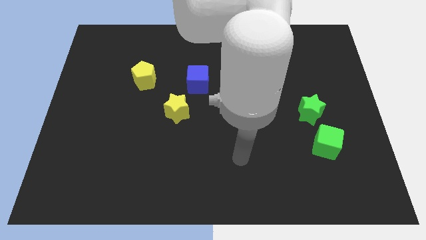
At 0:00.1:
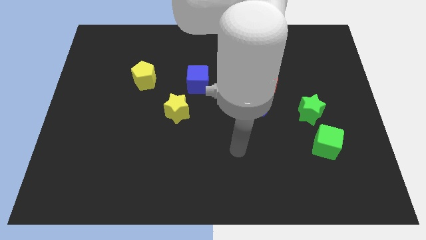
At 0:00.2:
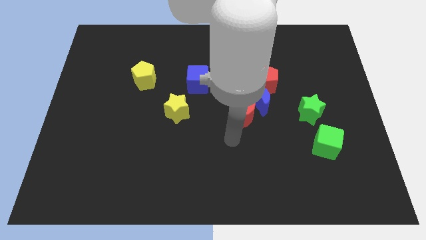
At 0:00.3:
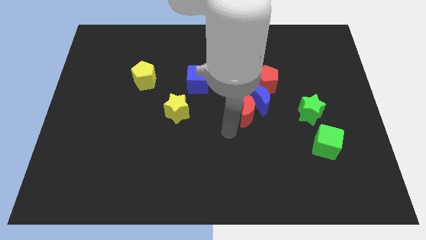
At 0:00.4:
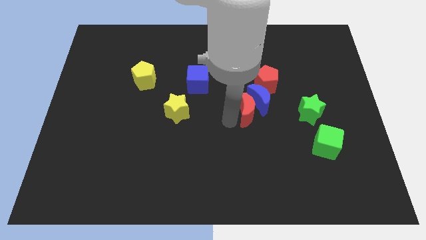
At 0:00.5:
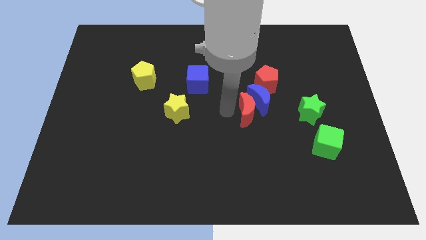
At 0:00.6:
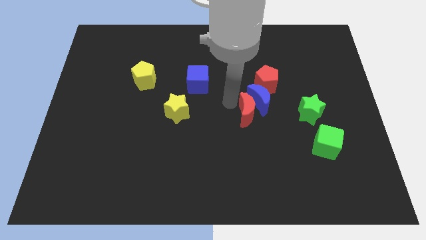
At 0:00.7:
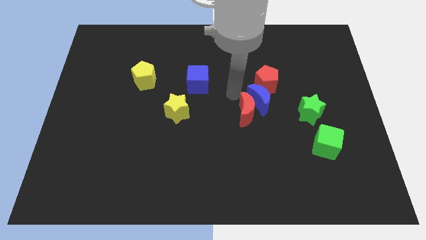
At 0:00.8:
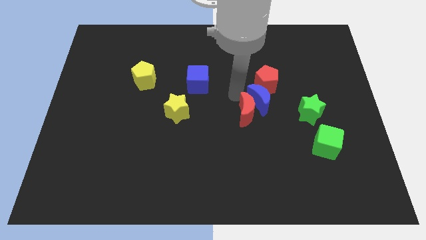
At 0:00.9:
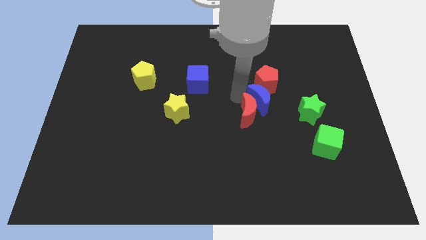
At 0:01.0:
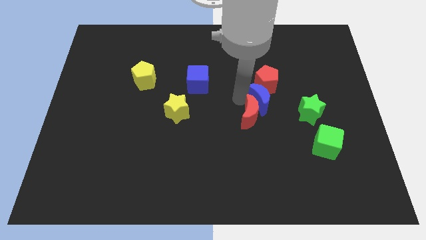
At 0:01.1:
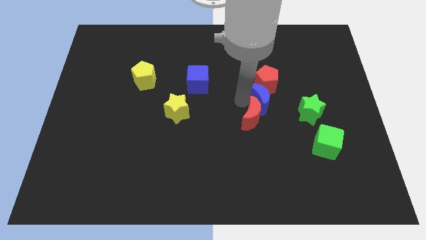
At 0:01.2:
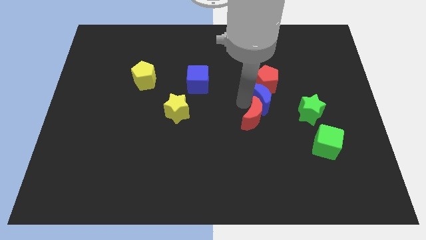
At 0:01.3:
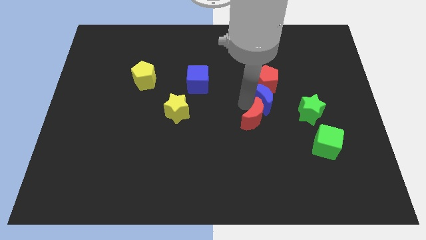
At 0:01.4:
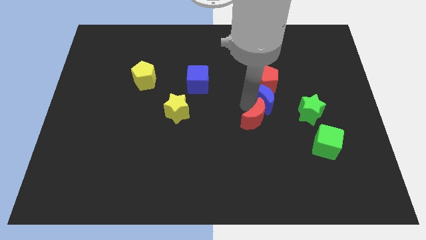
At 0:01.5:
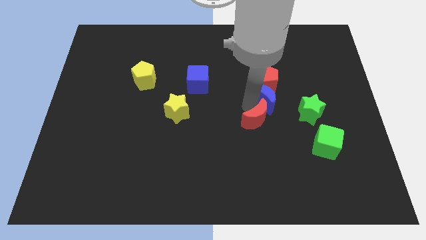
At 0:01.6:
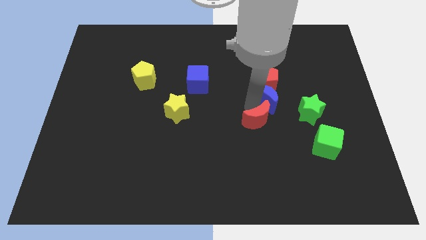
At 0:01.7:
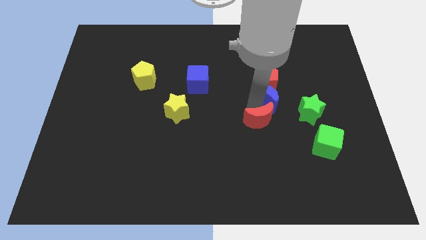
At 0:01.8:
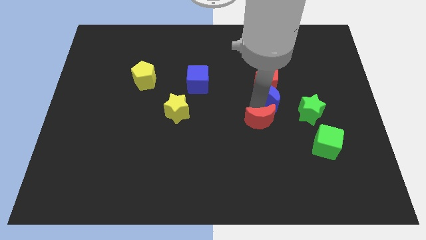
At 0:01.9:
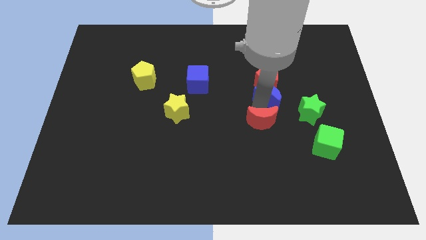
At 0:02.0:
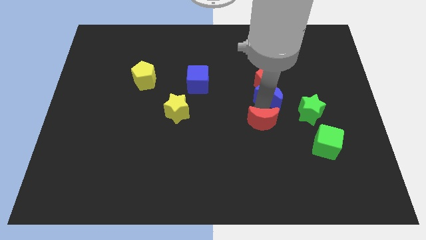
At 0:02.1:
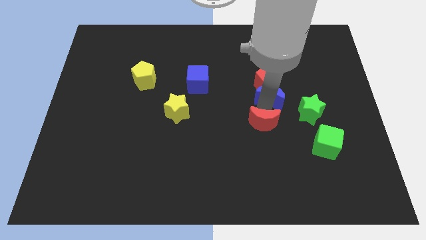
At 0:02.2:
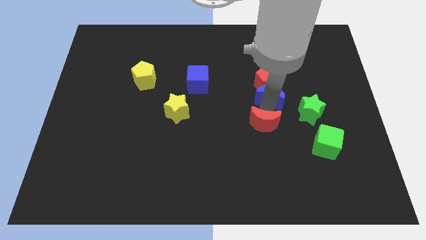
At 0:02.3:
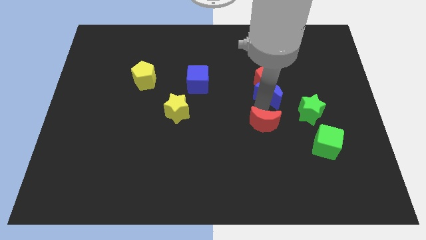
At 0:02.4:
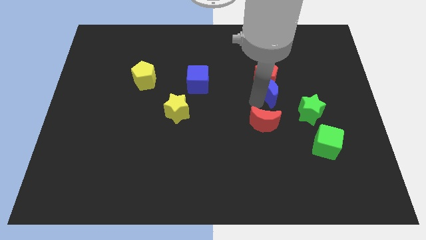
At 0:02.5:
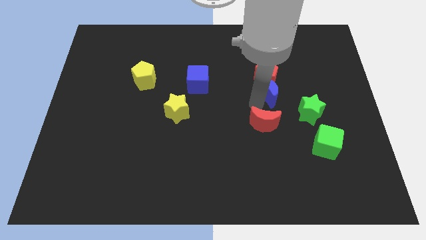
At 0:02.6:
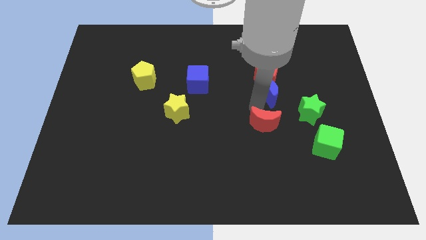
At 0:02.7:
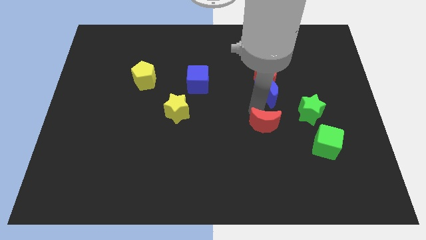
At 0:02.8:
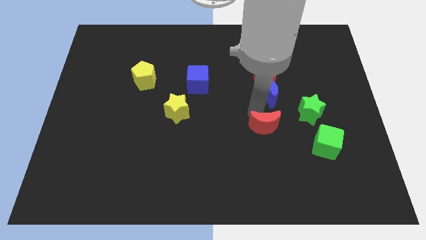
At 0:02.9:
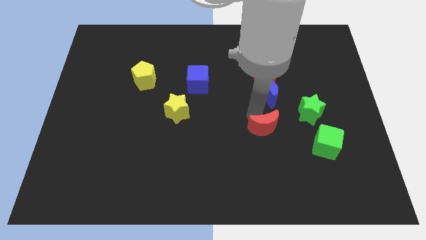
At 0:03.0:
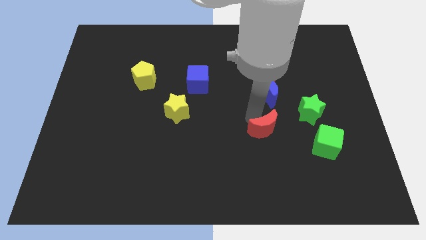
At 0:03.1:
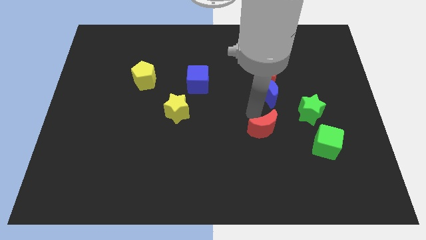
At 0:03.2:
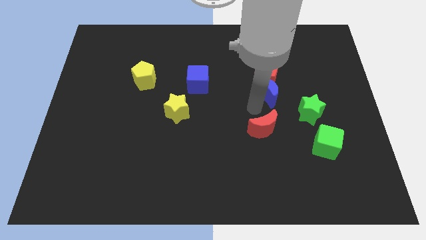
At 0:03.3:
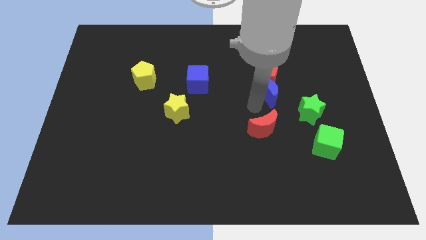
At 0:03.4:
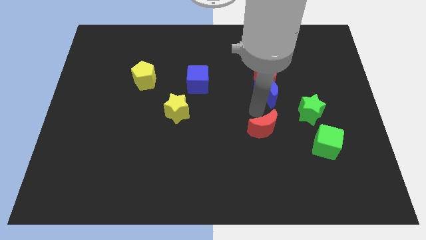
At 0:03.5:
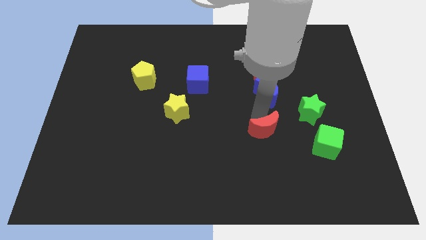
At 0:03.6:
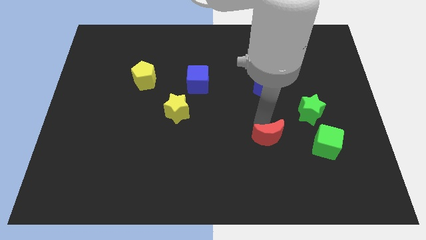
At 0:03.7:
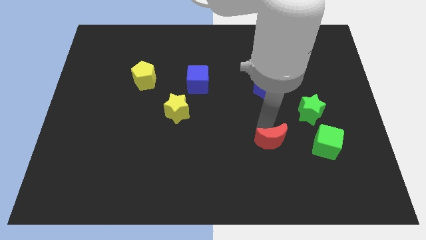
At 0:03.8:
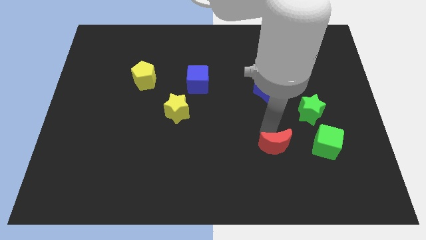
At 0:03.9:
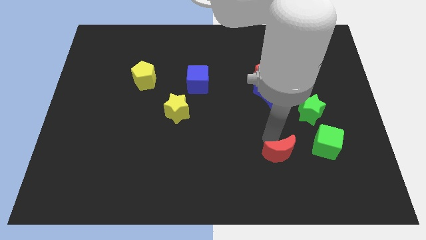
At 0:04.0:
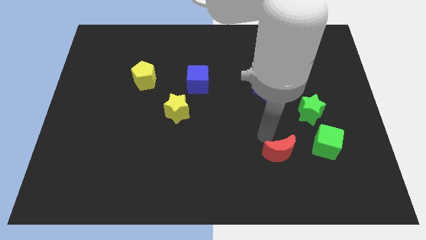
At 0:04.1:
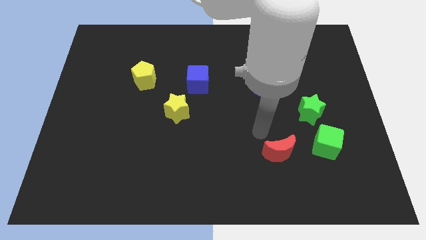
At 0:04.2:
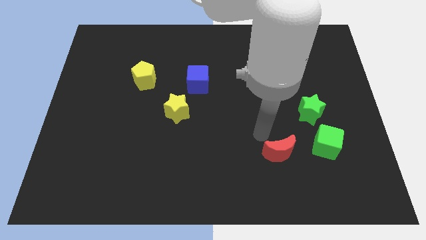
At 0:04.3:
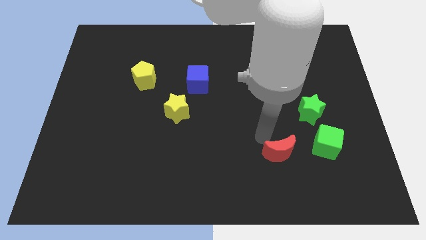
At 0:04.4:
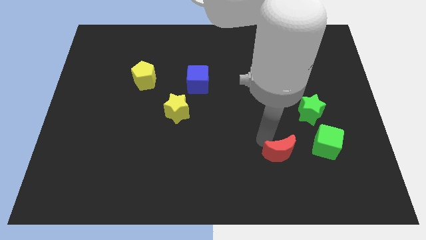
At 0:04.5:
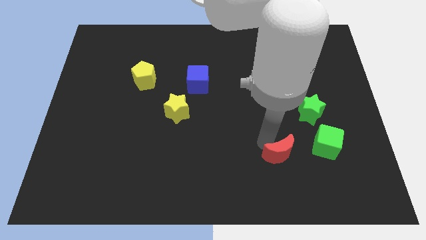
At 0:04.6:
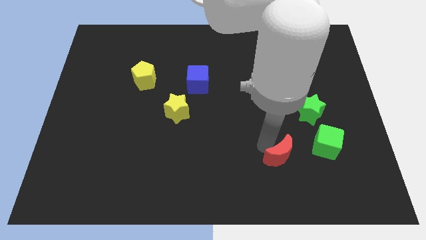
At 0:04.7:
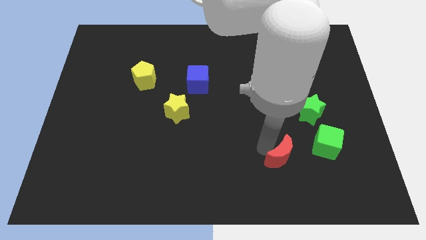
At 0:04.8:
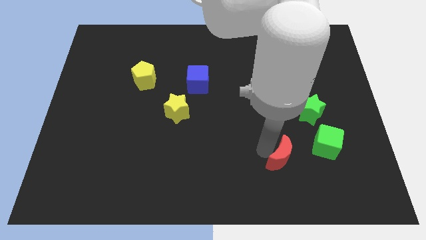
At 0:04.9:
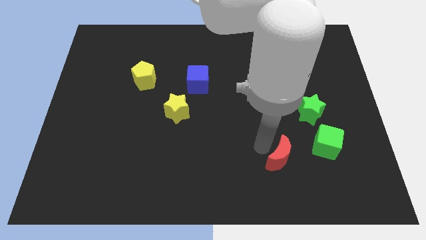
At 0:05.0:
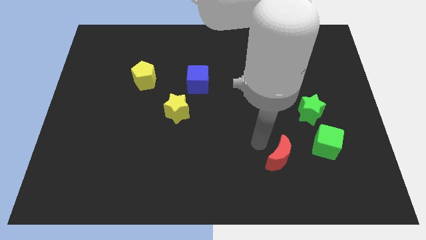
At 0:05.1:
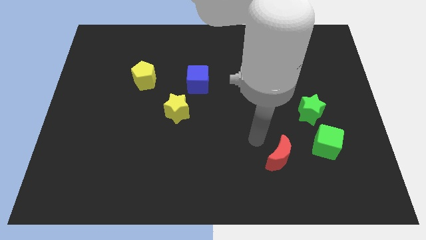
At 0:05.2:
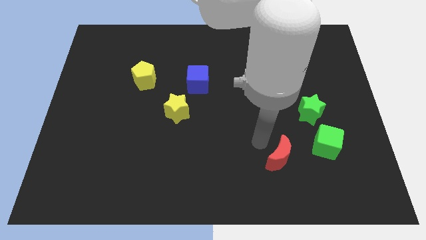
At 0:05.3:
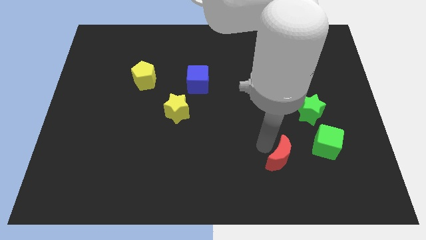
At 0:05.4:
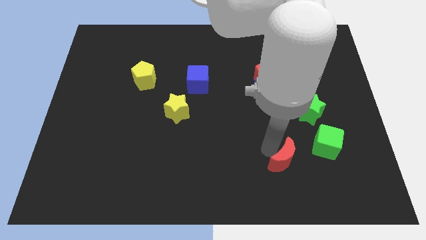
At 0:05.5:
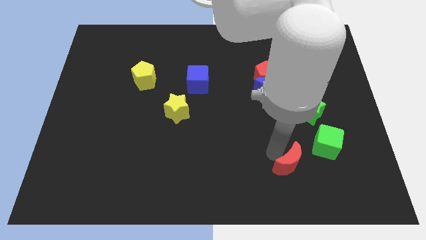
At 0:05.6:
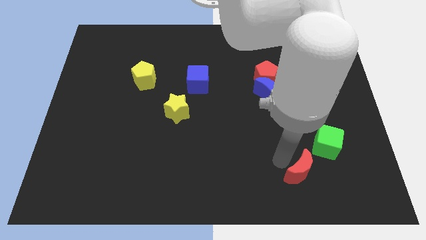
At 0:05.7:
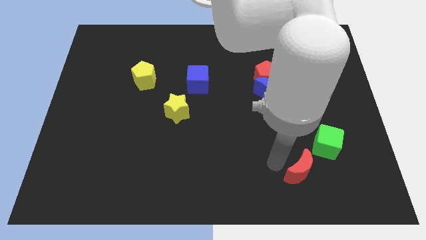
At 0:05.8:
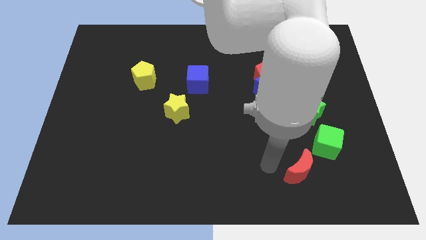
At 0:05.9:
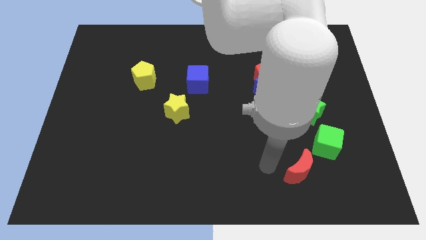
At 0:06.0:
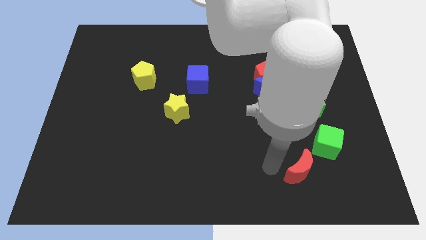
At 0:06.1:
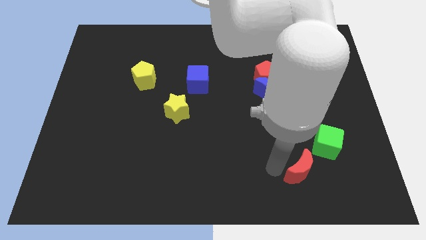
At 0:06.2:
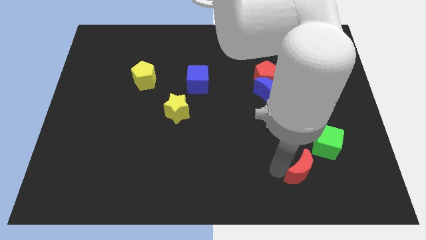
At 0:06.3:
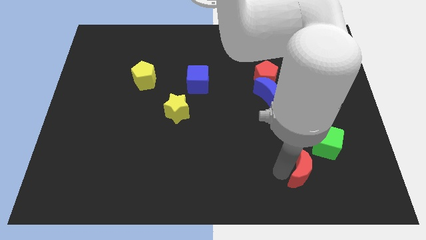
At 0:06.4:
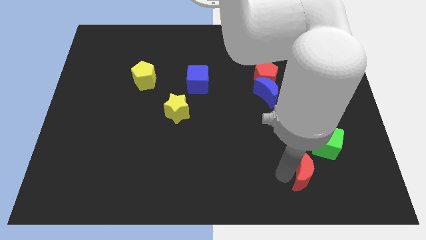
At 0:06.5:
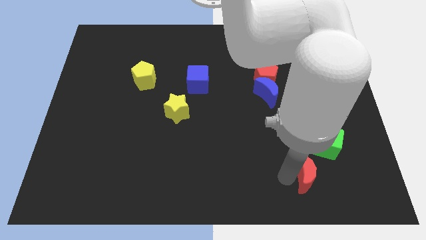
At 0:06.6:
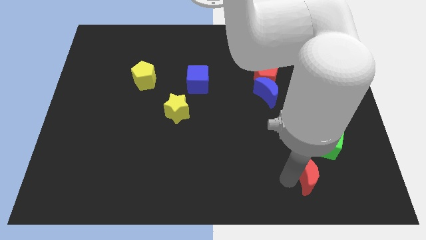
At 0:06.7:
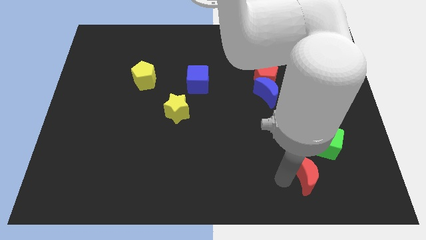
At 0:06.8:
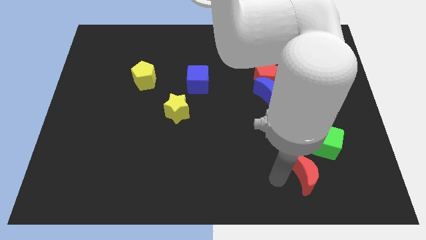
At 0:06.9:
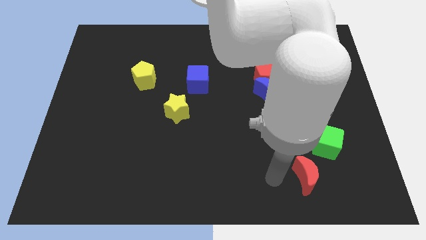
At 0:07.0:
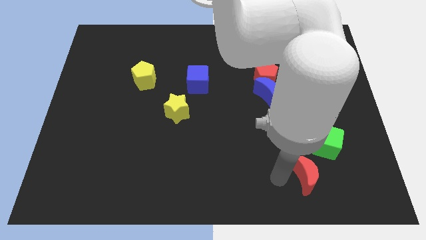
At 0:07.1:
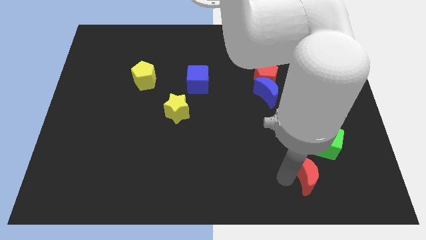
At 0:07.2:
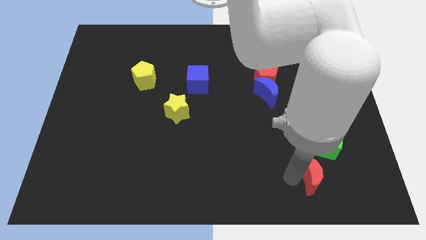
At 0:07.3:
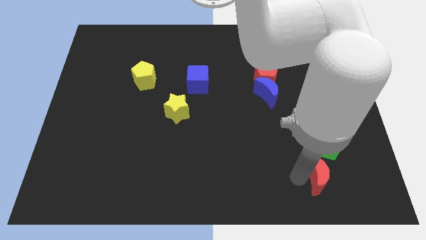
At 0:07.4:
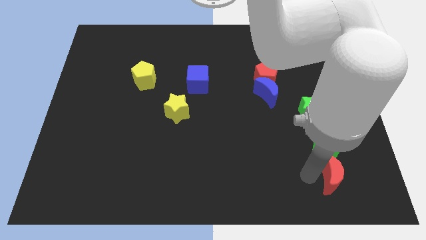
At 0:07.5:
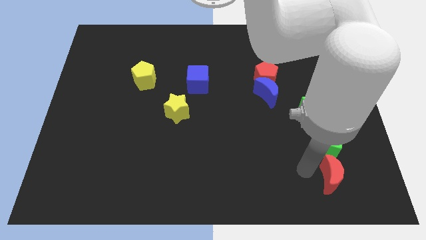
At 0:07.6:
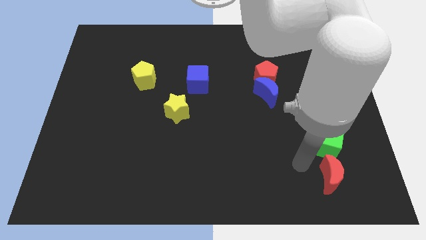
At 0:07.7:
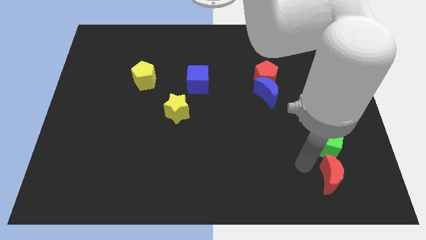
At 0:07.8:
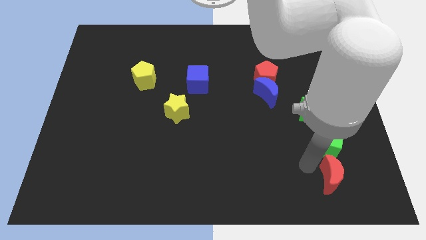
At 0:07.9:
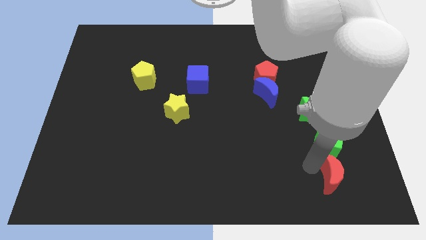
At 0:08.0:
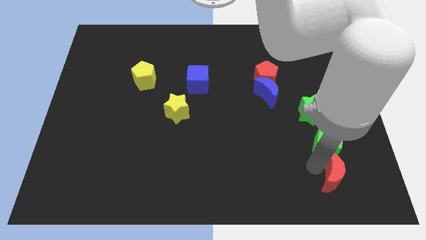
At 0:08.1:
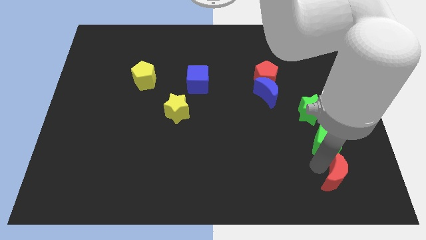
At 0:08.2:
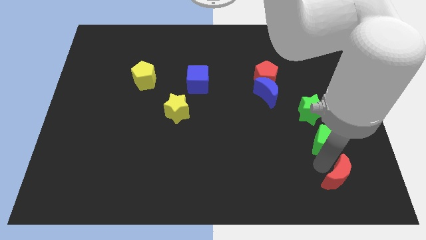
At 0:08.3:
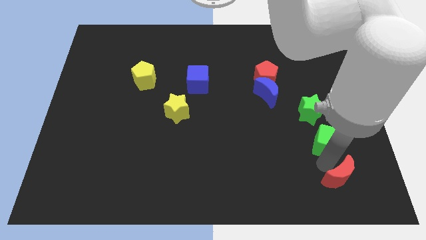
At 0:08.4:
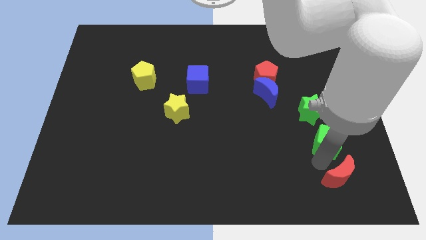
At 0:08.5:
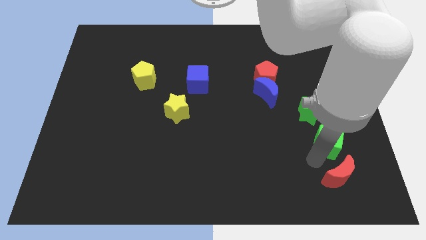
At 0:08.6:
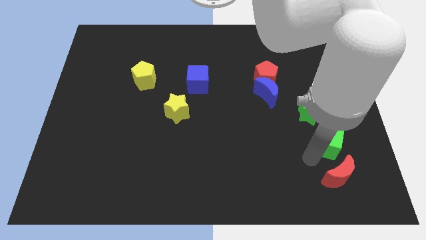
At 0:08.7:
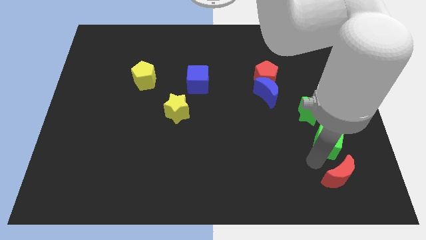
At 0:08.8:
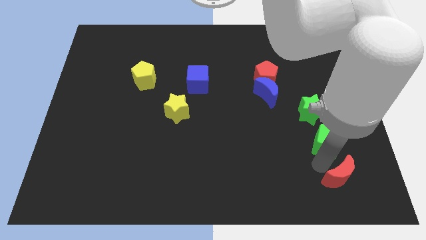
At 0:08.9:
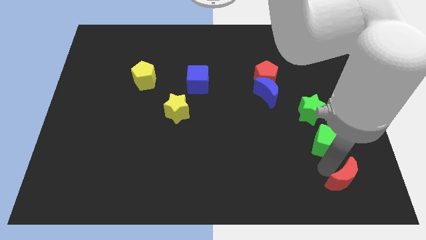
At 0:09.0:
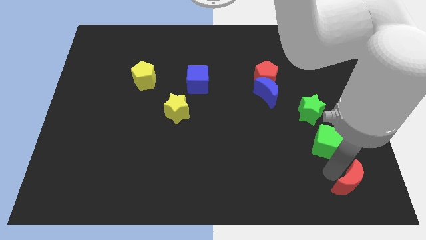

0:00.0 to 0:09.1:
put the red moon to the bottom right
